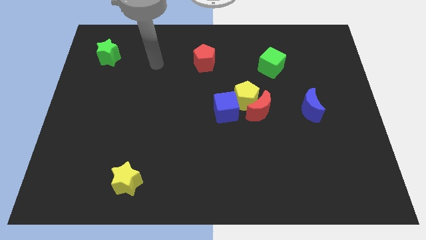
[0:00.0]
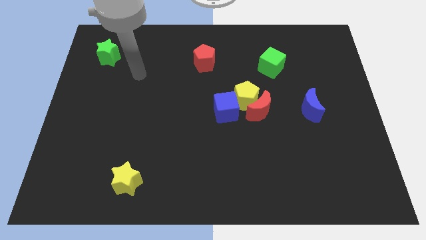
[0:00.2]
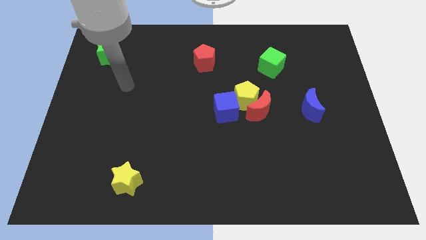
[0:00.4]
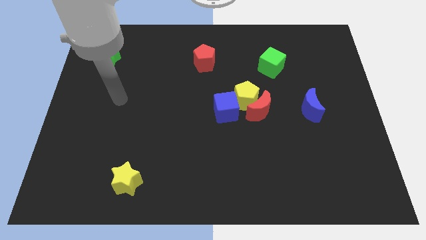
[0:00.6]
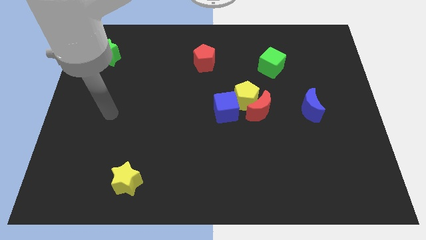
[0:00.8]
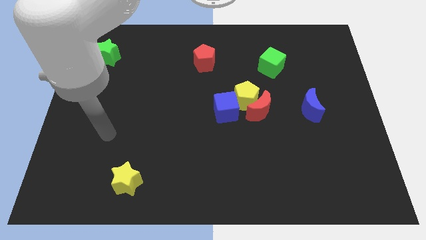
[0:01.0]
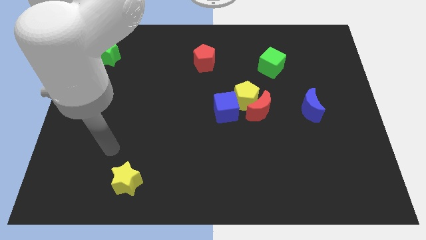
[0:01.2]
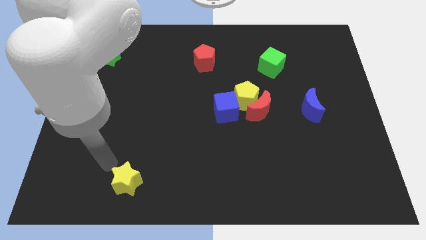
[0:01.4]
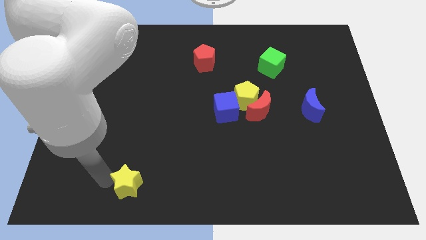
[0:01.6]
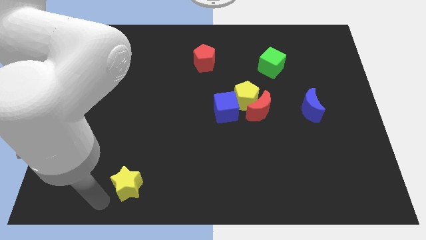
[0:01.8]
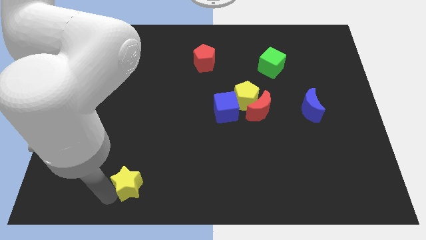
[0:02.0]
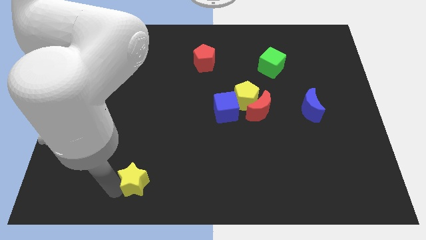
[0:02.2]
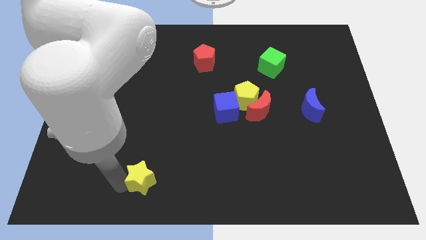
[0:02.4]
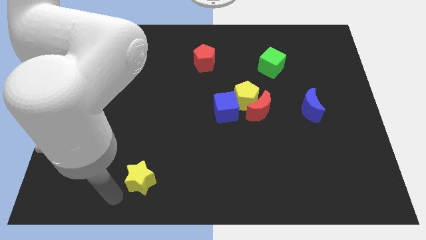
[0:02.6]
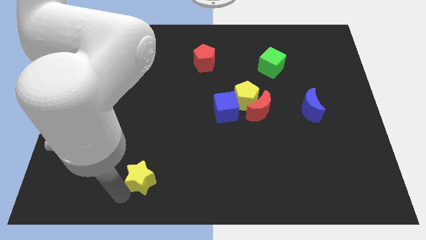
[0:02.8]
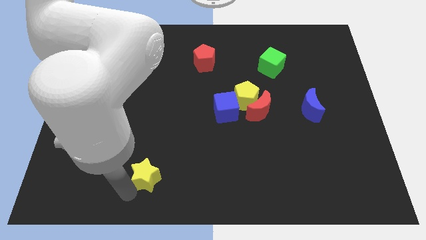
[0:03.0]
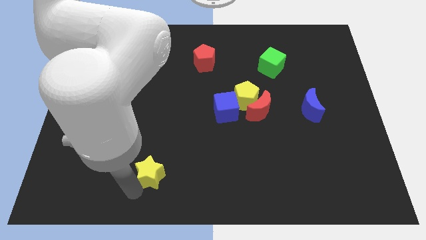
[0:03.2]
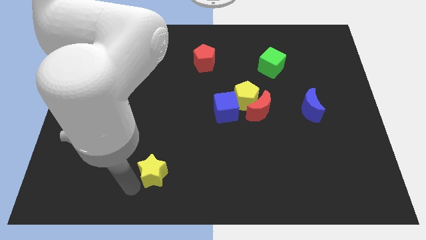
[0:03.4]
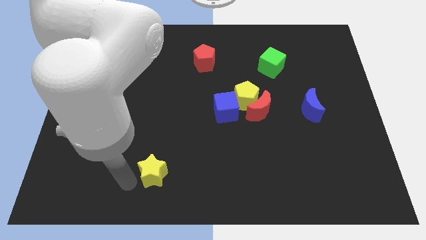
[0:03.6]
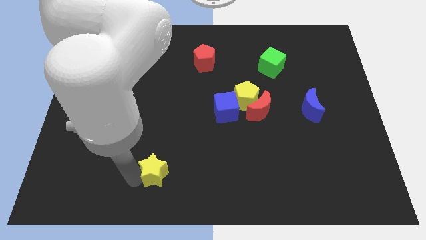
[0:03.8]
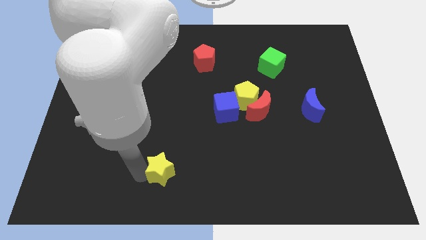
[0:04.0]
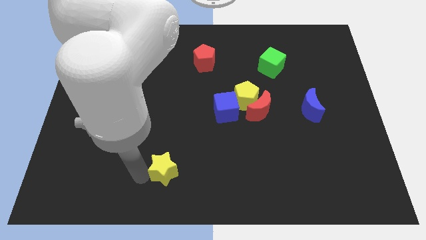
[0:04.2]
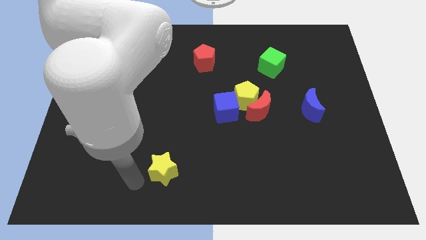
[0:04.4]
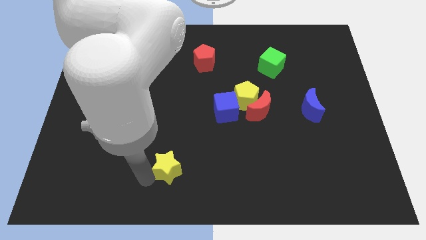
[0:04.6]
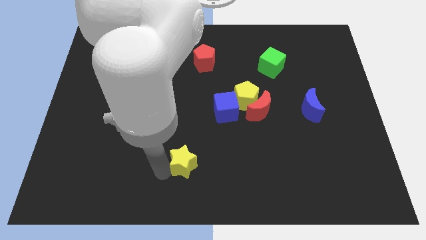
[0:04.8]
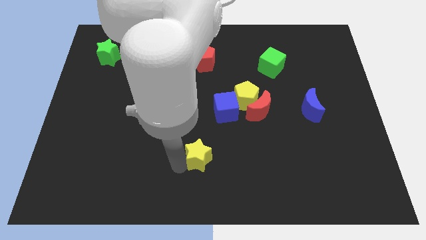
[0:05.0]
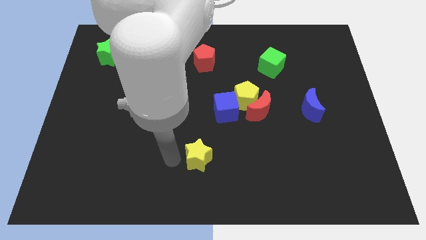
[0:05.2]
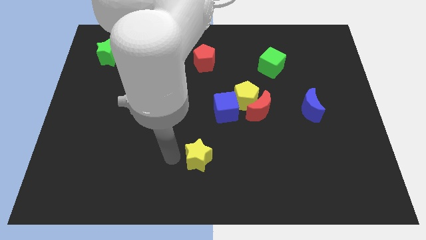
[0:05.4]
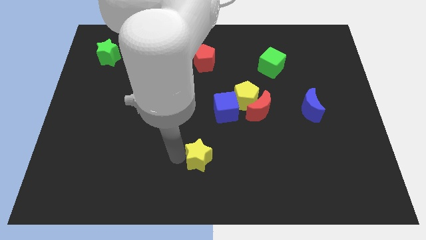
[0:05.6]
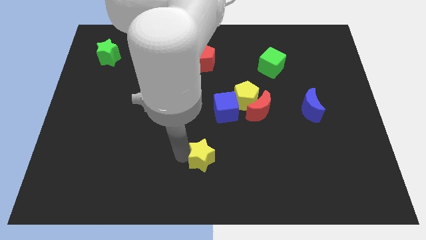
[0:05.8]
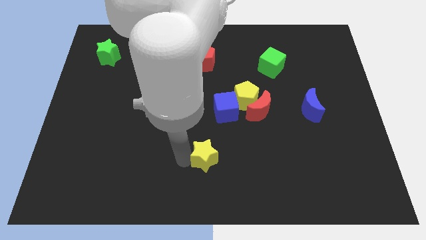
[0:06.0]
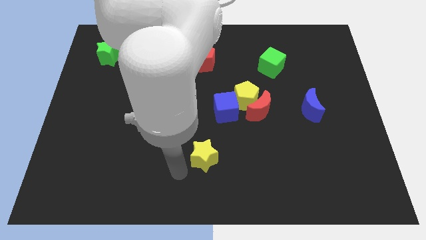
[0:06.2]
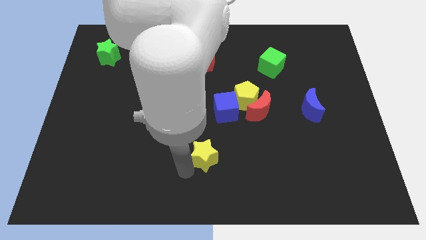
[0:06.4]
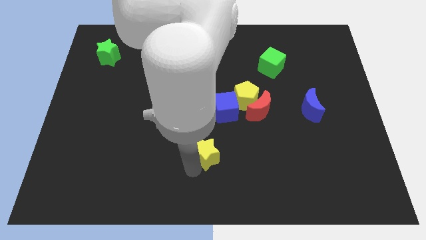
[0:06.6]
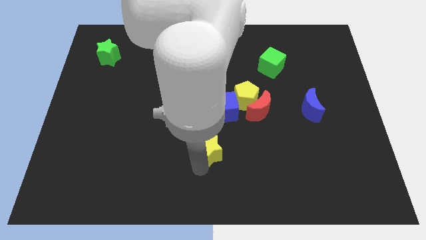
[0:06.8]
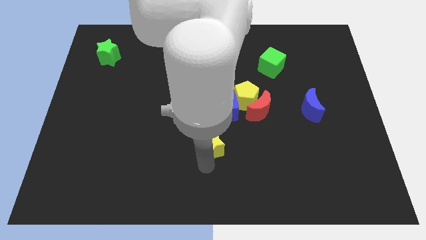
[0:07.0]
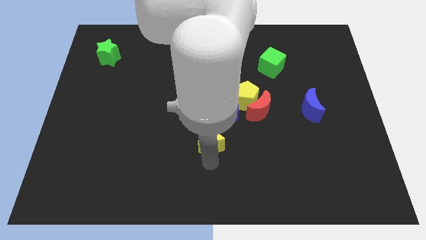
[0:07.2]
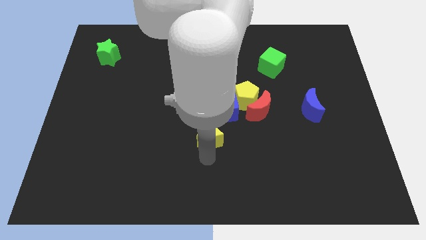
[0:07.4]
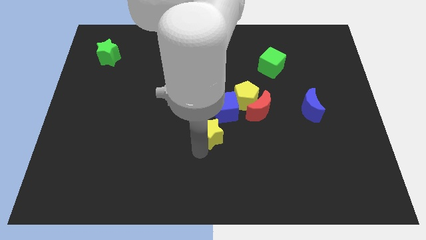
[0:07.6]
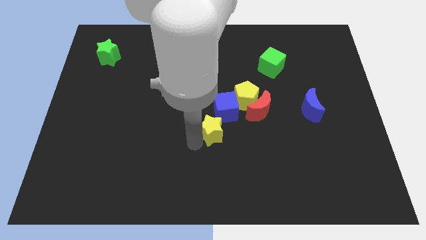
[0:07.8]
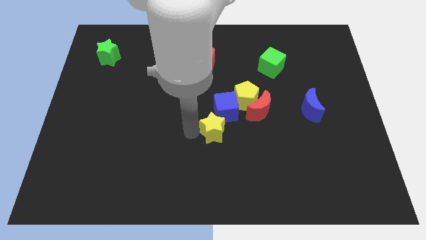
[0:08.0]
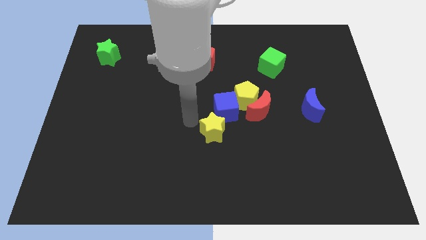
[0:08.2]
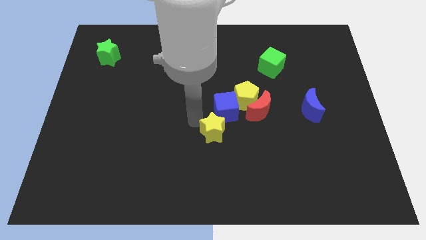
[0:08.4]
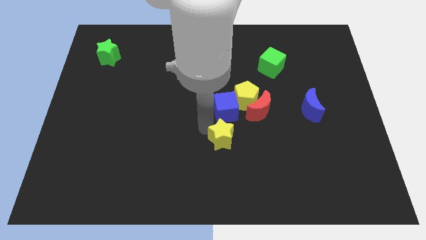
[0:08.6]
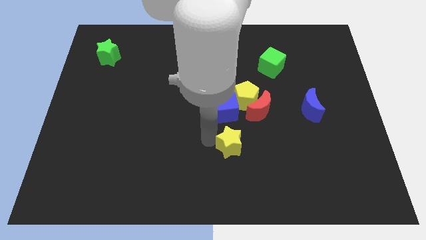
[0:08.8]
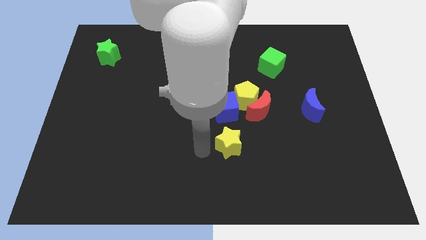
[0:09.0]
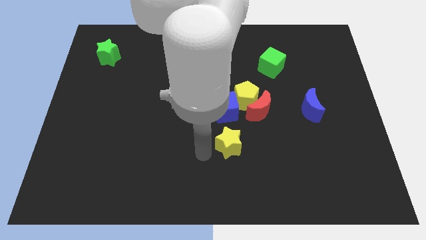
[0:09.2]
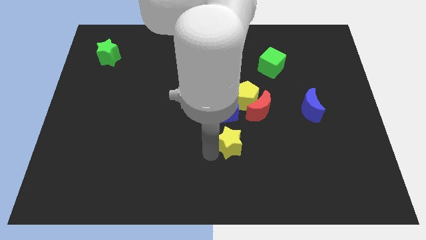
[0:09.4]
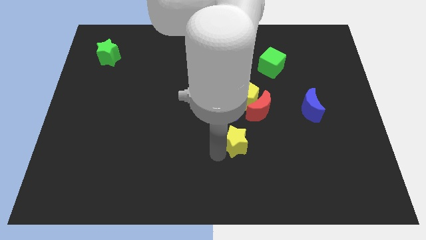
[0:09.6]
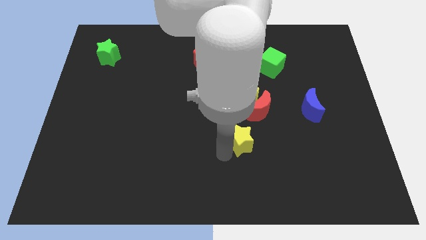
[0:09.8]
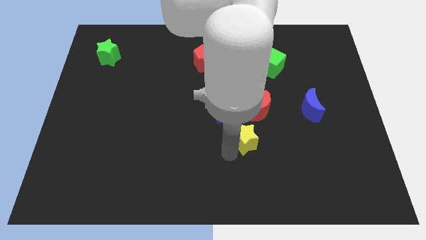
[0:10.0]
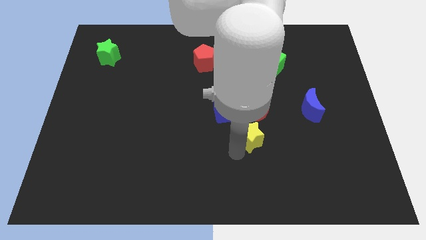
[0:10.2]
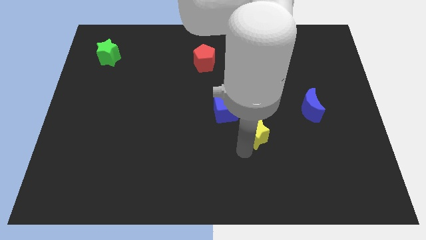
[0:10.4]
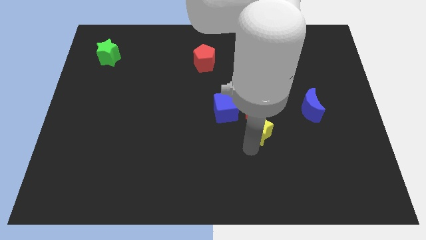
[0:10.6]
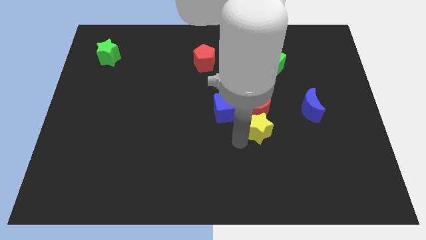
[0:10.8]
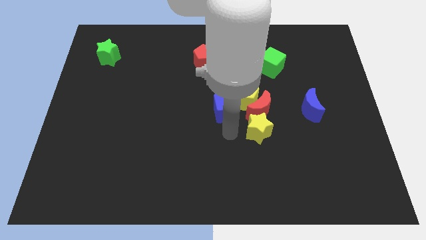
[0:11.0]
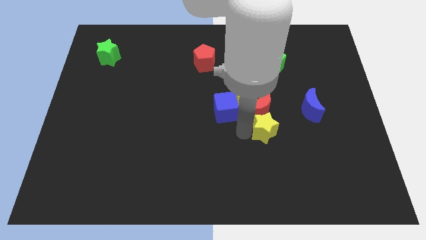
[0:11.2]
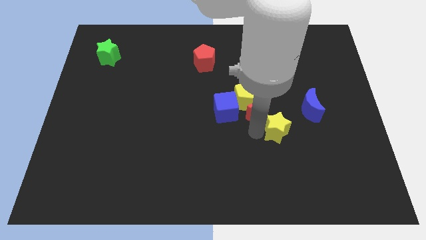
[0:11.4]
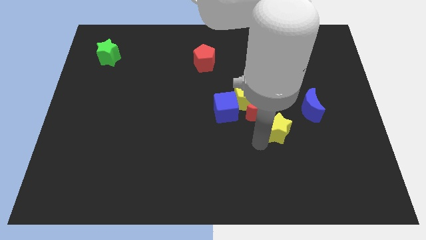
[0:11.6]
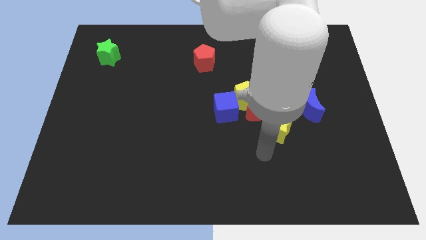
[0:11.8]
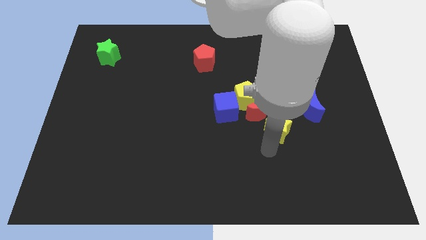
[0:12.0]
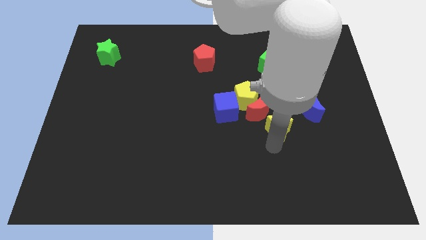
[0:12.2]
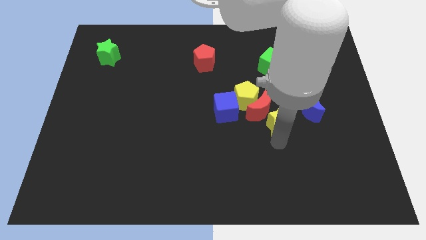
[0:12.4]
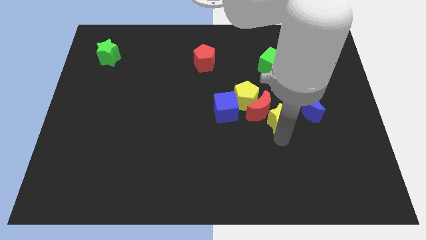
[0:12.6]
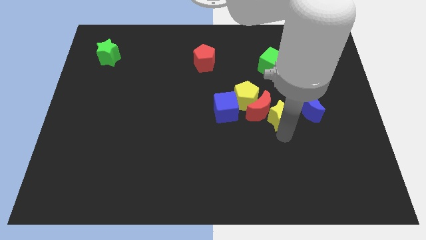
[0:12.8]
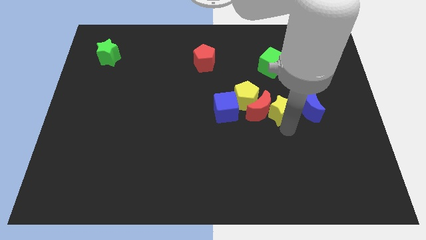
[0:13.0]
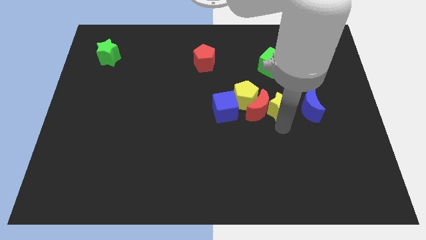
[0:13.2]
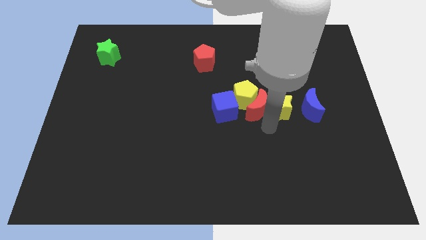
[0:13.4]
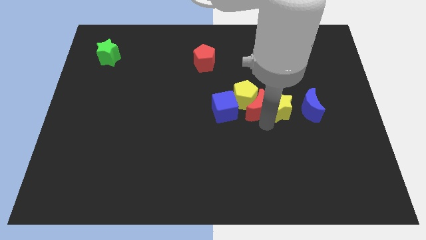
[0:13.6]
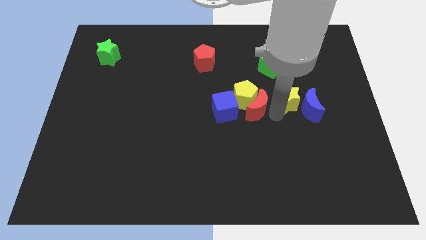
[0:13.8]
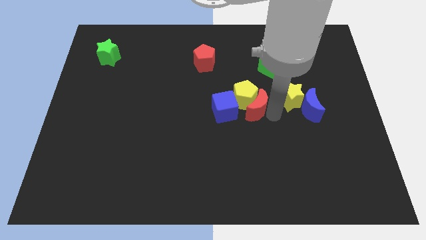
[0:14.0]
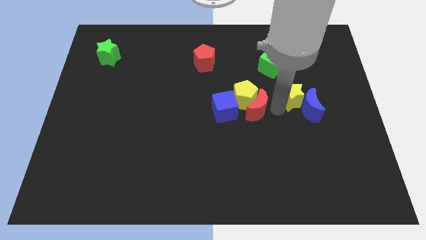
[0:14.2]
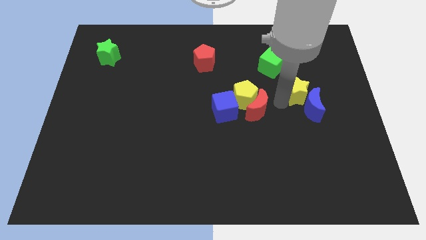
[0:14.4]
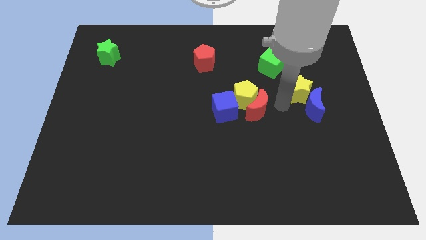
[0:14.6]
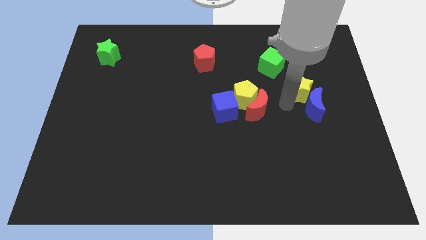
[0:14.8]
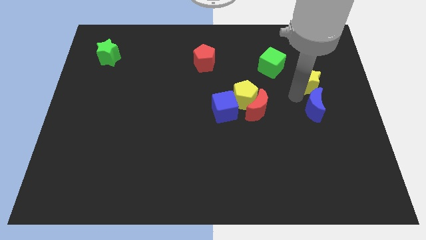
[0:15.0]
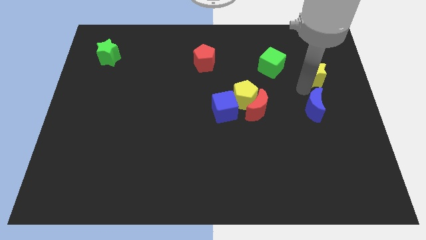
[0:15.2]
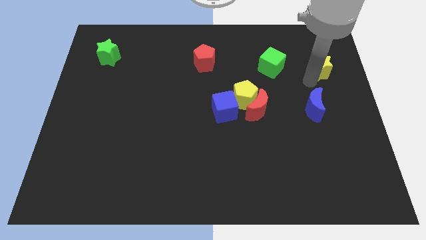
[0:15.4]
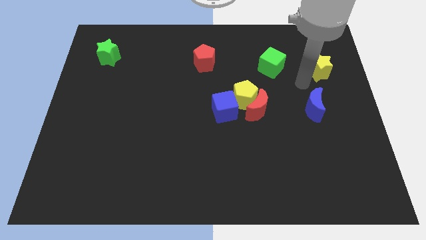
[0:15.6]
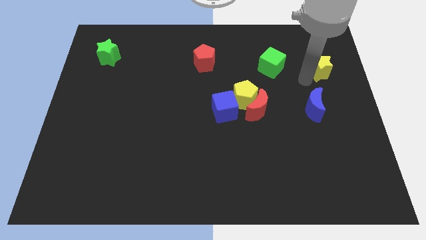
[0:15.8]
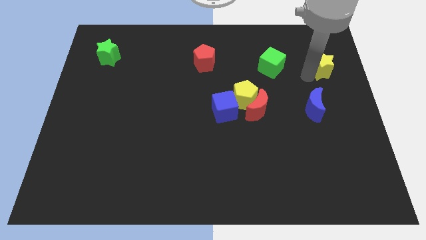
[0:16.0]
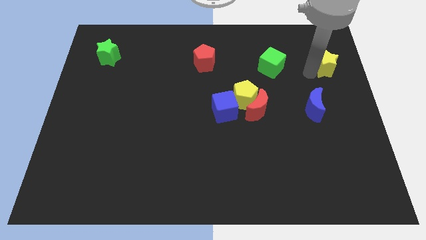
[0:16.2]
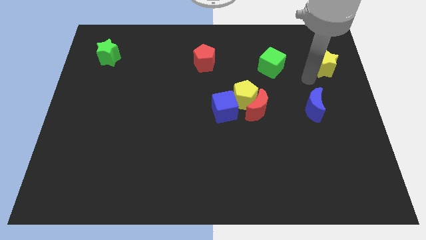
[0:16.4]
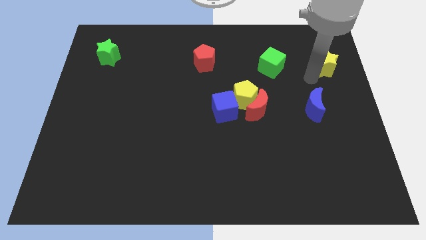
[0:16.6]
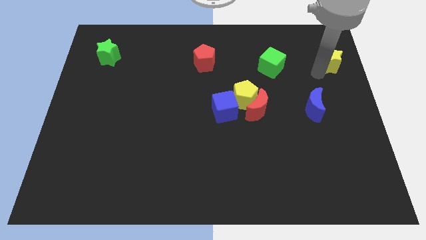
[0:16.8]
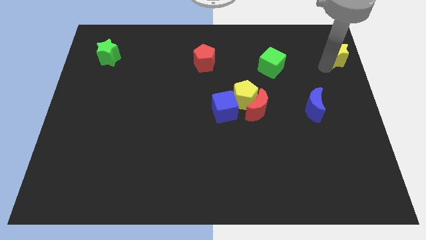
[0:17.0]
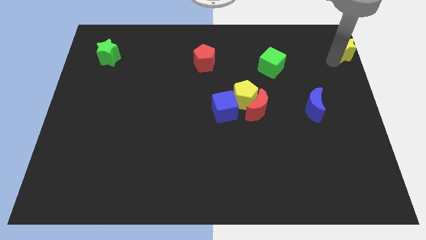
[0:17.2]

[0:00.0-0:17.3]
put the yellow star to the top right corner
